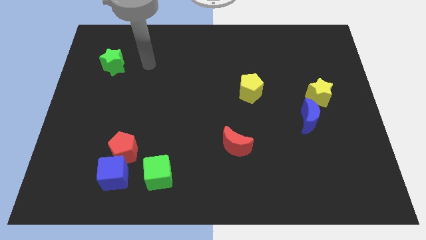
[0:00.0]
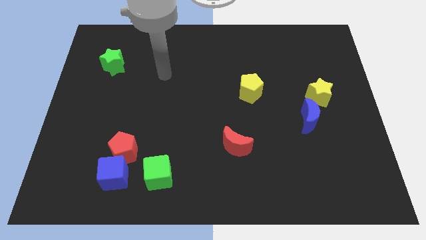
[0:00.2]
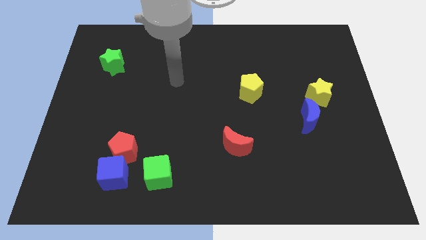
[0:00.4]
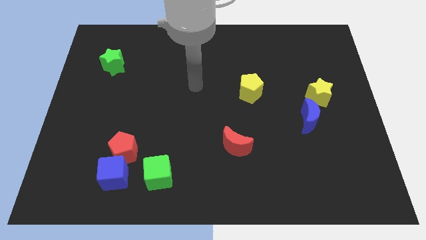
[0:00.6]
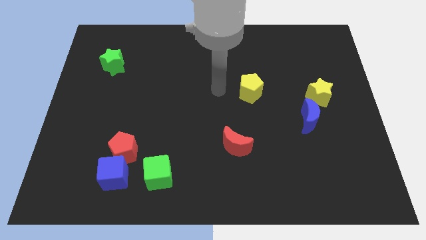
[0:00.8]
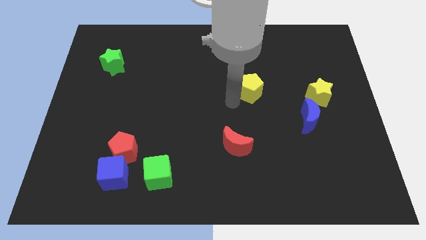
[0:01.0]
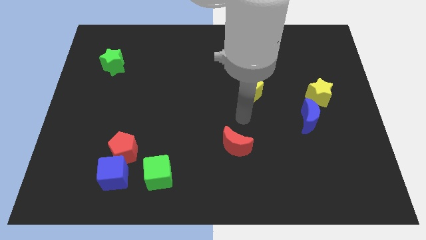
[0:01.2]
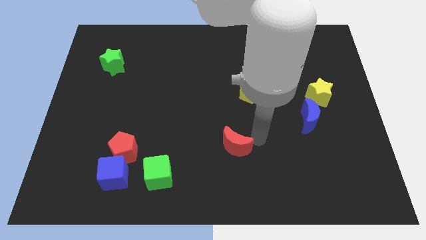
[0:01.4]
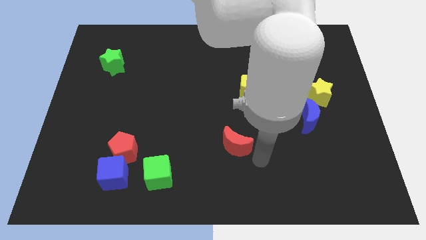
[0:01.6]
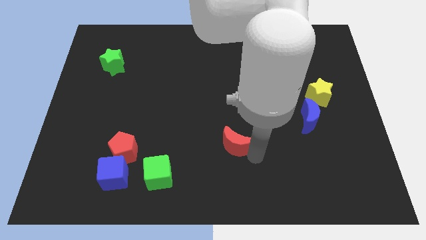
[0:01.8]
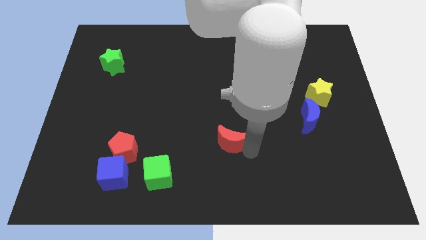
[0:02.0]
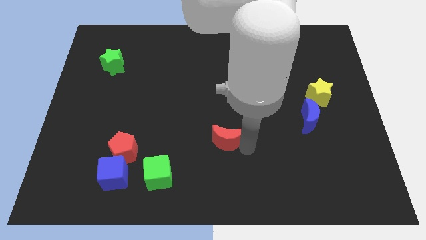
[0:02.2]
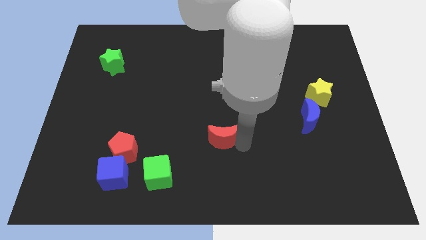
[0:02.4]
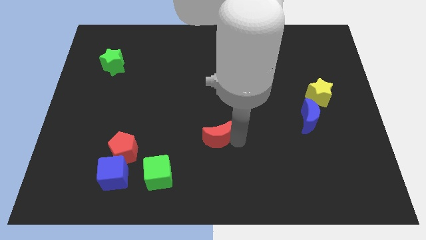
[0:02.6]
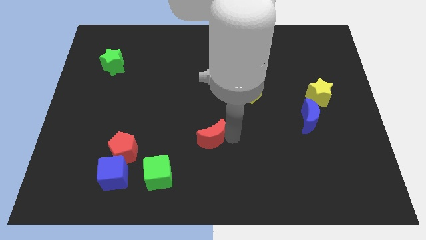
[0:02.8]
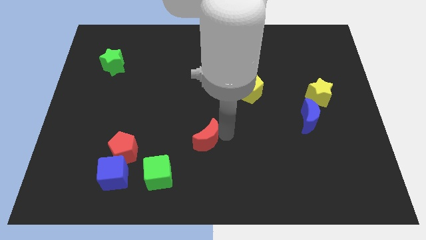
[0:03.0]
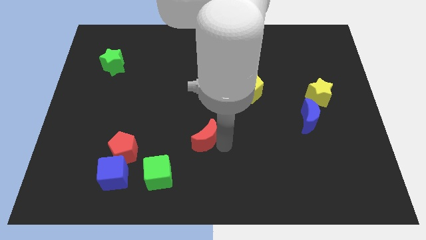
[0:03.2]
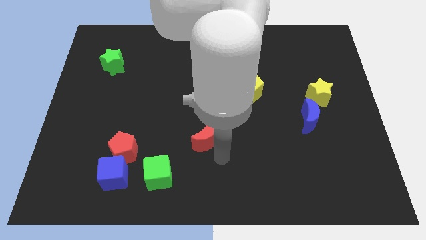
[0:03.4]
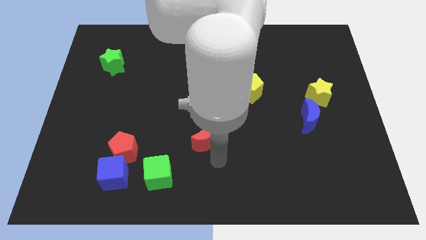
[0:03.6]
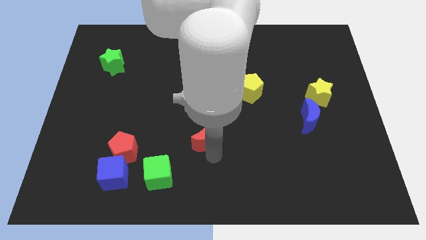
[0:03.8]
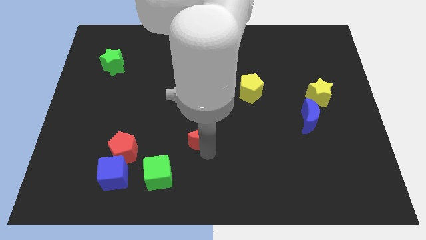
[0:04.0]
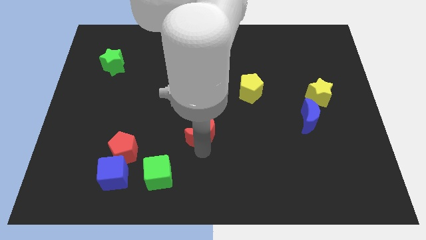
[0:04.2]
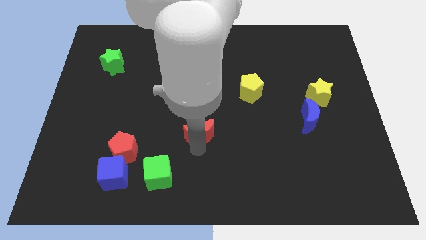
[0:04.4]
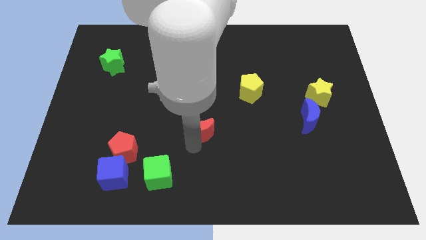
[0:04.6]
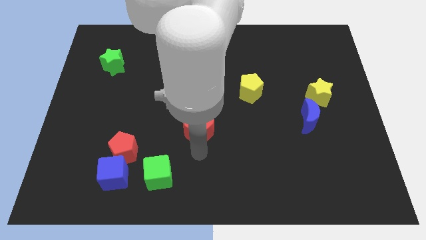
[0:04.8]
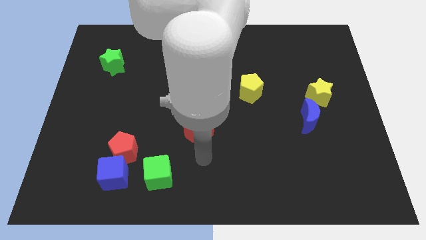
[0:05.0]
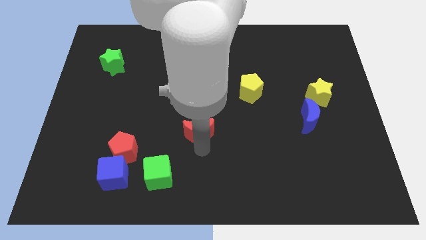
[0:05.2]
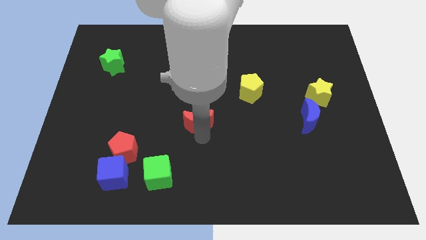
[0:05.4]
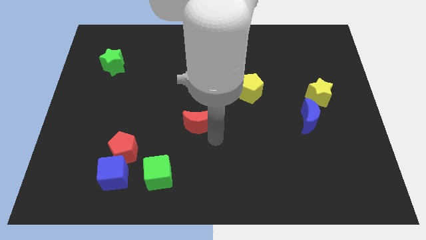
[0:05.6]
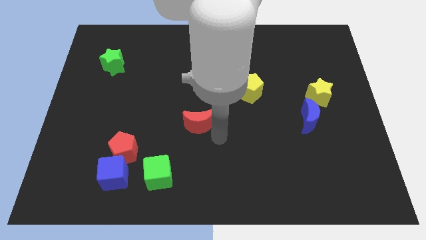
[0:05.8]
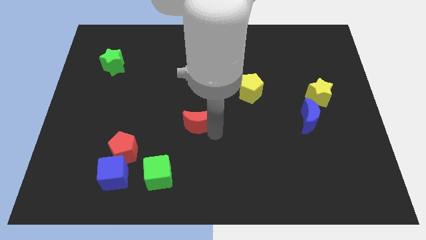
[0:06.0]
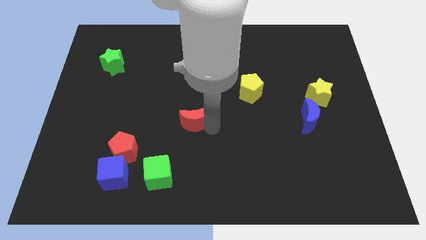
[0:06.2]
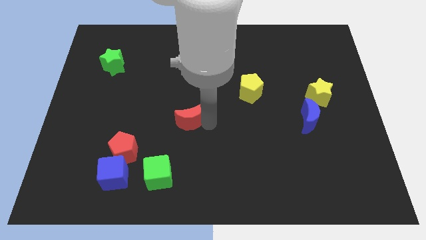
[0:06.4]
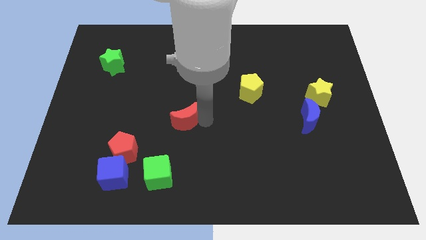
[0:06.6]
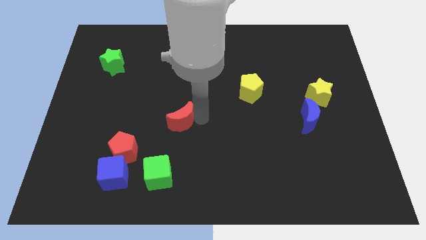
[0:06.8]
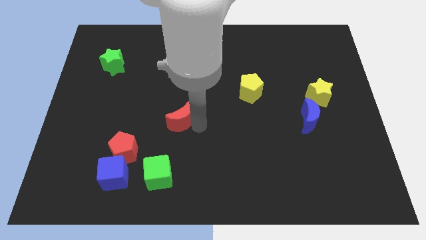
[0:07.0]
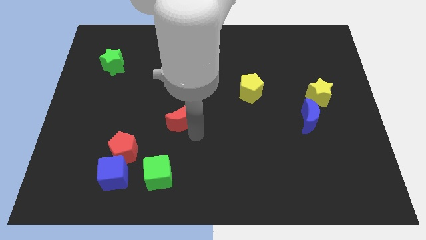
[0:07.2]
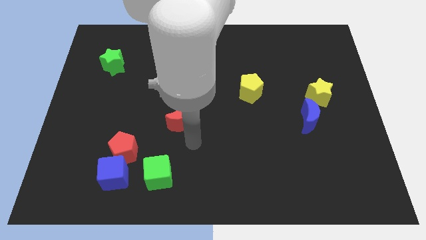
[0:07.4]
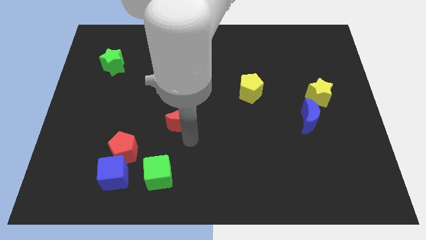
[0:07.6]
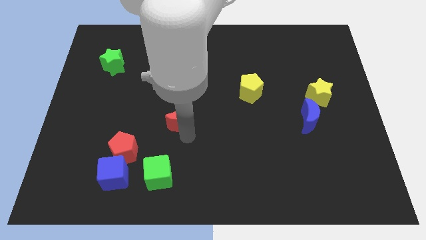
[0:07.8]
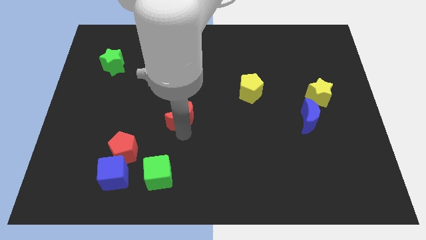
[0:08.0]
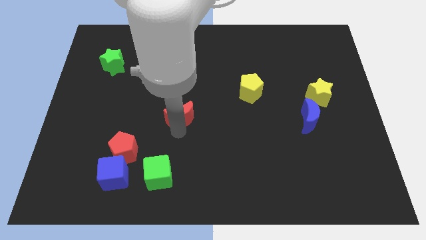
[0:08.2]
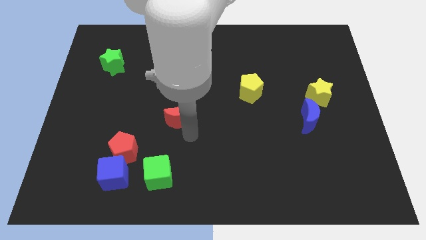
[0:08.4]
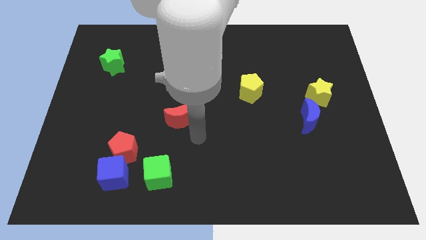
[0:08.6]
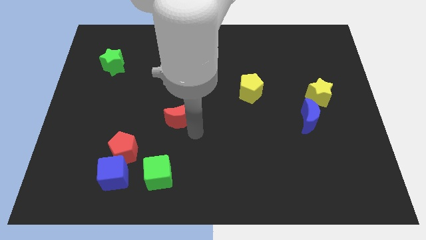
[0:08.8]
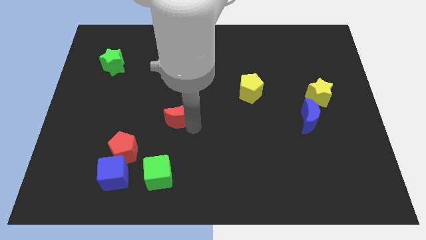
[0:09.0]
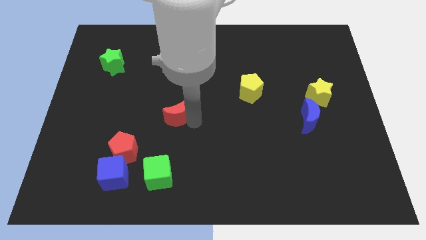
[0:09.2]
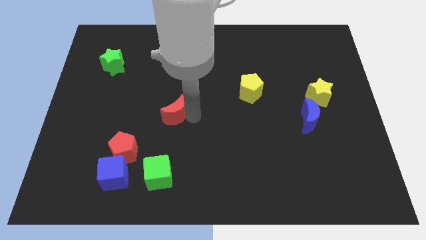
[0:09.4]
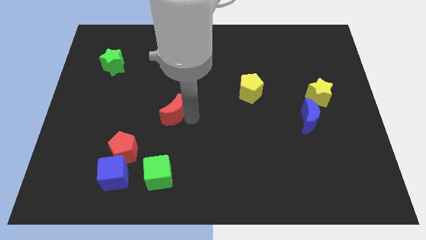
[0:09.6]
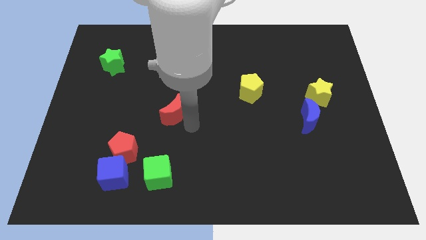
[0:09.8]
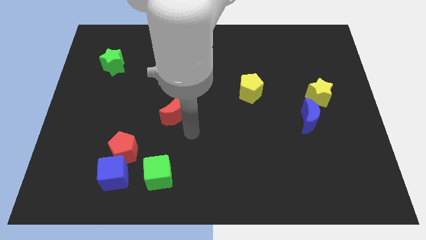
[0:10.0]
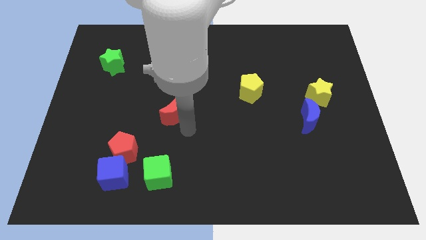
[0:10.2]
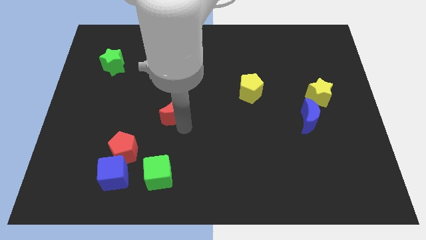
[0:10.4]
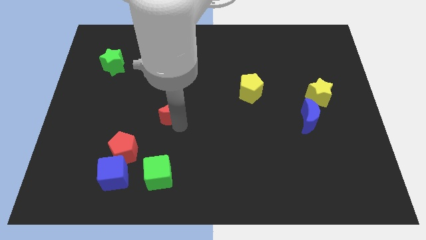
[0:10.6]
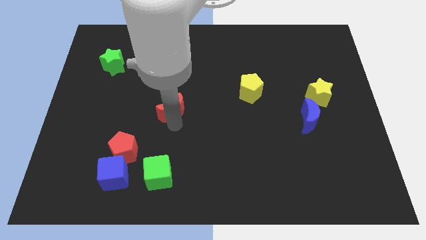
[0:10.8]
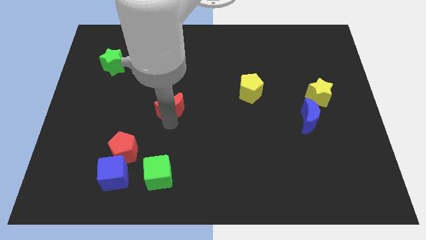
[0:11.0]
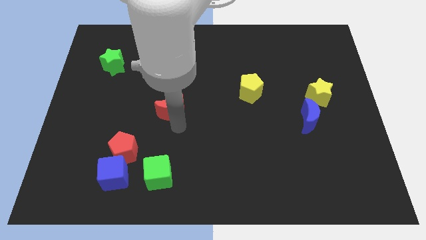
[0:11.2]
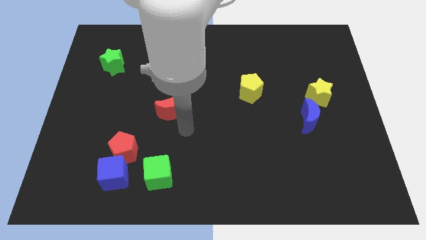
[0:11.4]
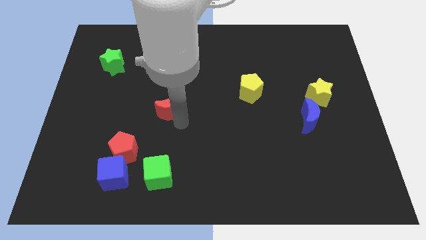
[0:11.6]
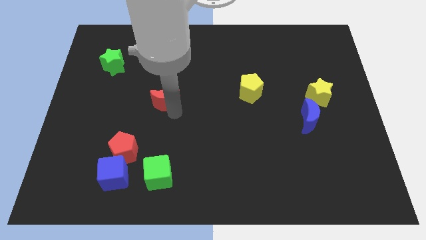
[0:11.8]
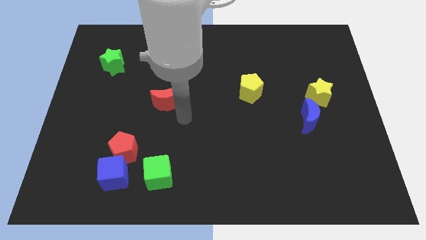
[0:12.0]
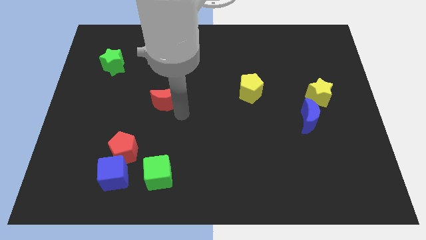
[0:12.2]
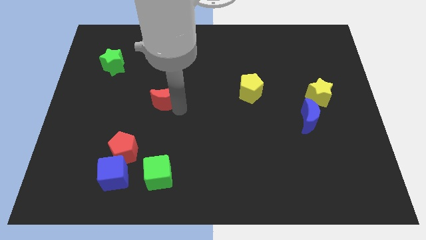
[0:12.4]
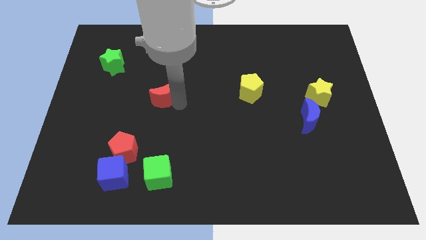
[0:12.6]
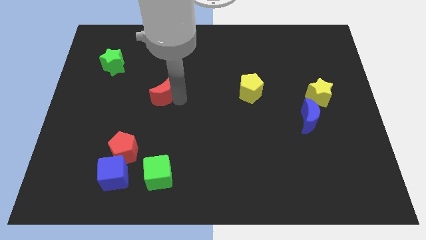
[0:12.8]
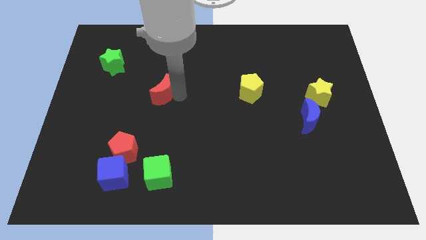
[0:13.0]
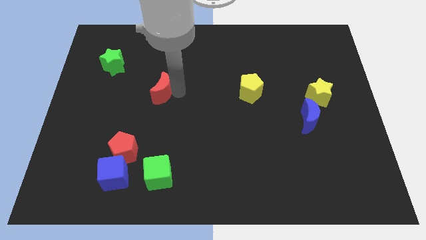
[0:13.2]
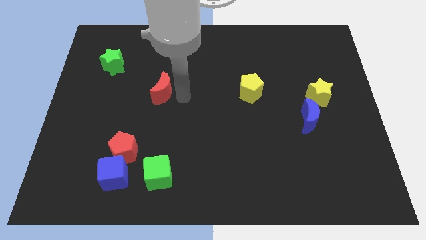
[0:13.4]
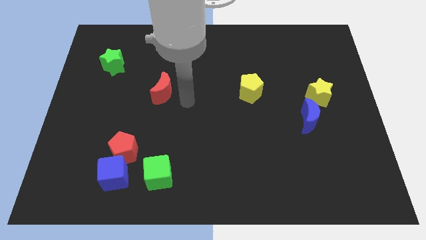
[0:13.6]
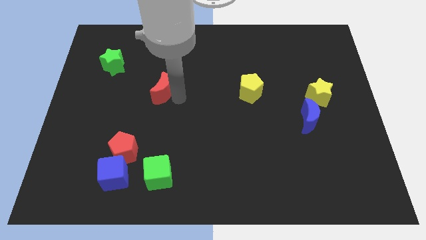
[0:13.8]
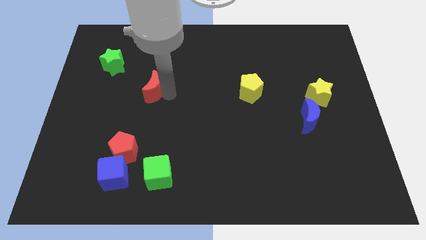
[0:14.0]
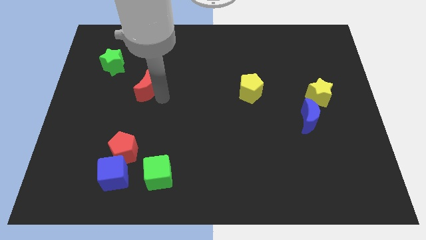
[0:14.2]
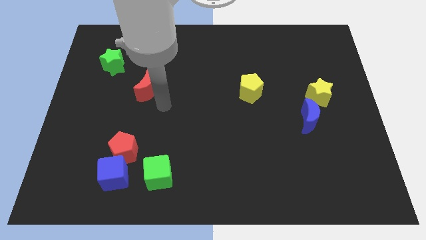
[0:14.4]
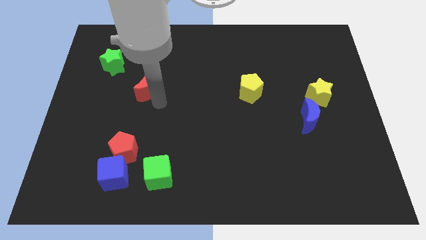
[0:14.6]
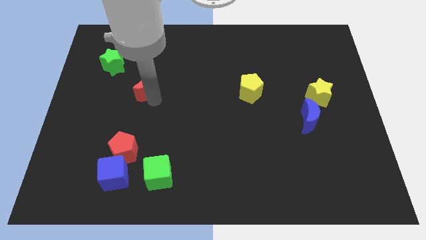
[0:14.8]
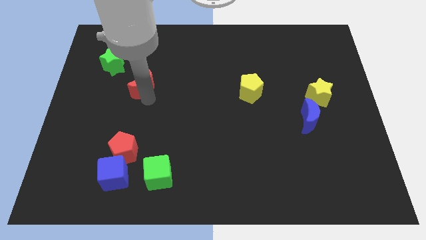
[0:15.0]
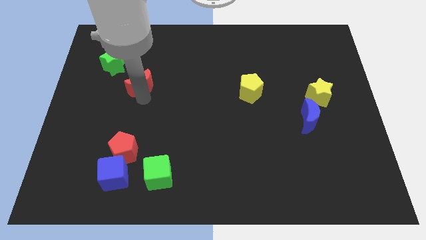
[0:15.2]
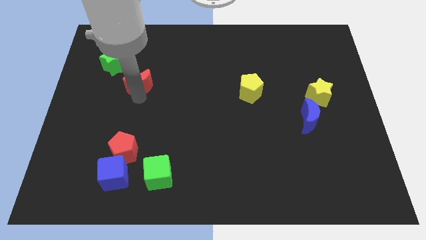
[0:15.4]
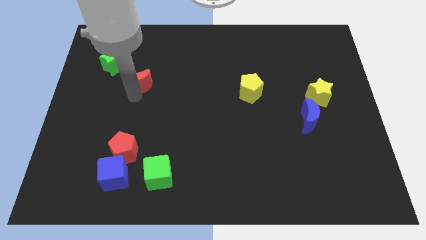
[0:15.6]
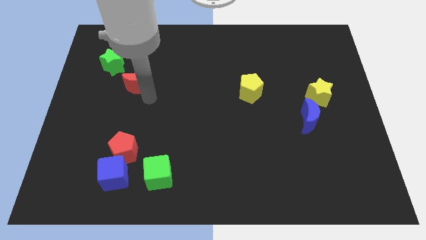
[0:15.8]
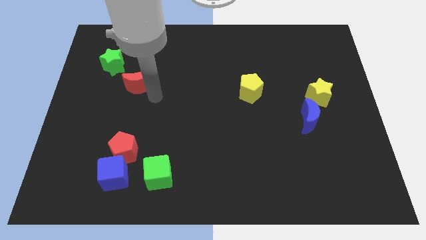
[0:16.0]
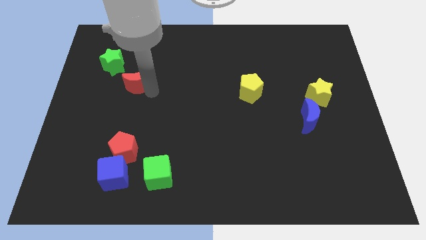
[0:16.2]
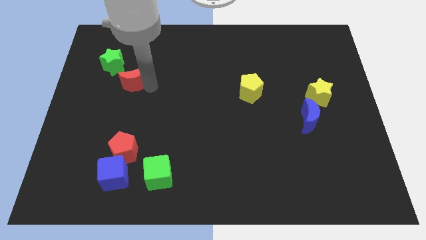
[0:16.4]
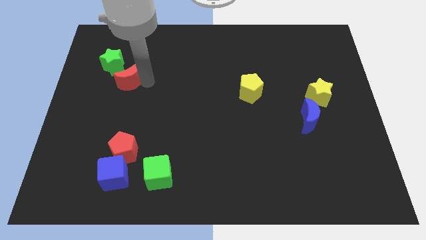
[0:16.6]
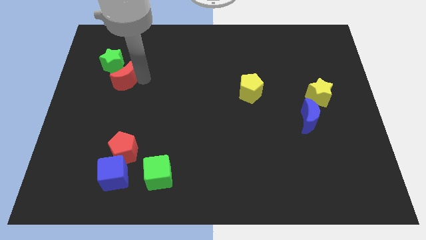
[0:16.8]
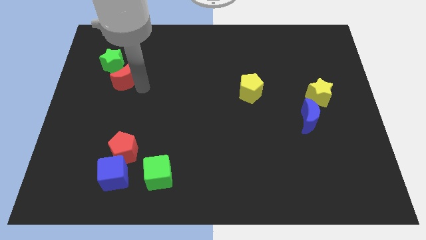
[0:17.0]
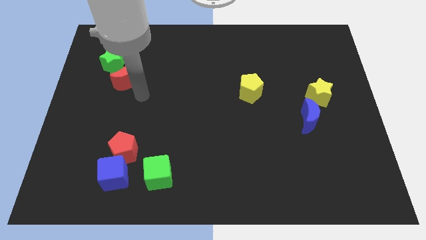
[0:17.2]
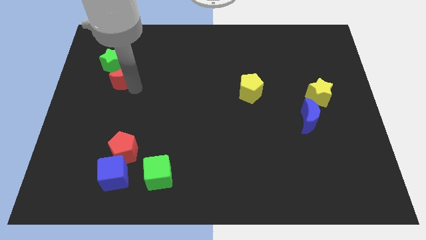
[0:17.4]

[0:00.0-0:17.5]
slide the red moon close to the green star
